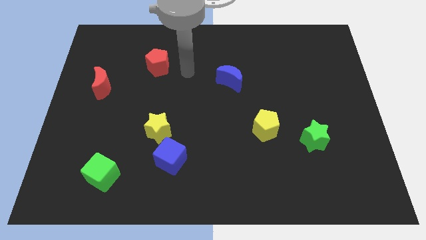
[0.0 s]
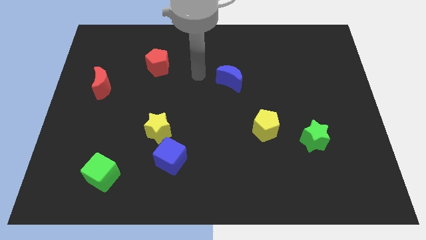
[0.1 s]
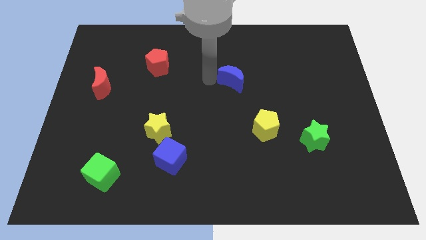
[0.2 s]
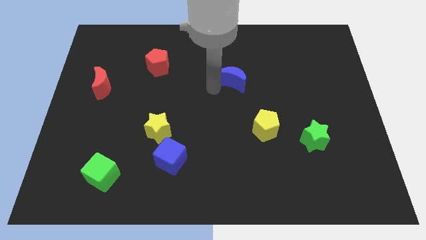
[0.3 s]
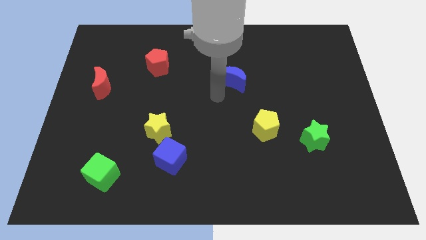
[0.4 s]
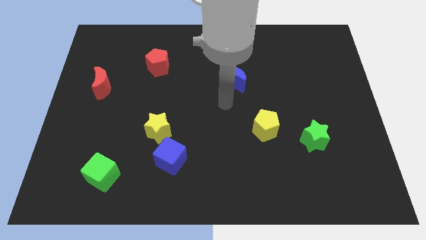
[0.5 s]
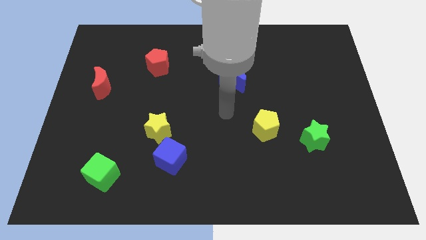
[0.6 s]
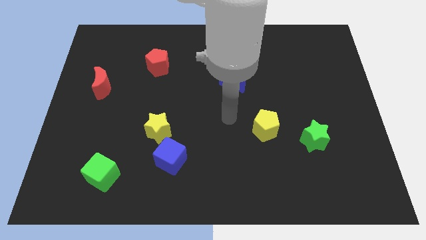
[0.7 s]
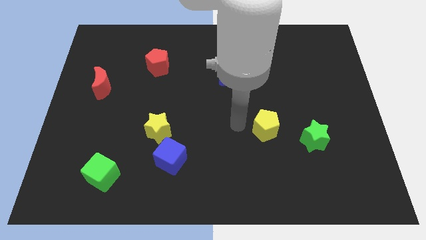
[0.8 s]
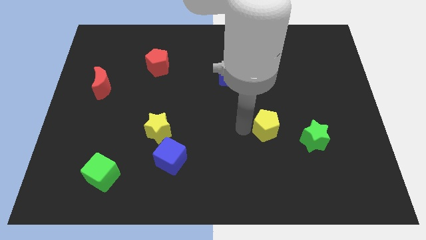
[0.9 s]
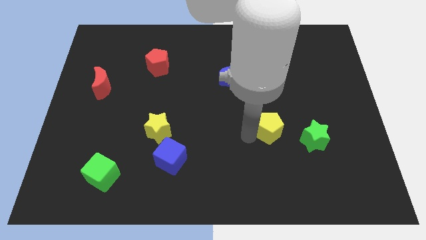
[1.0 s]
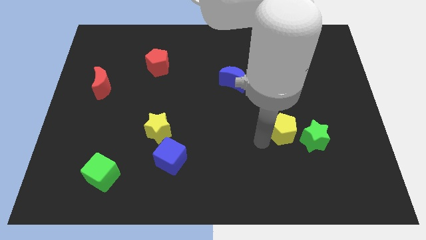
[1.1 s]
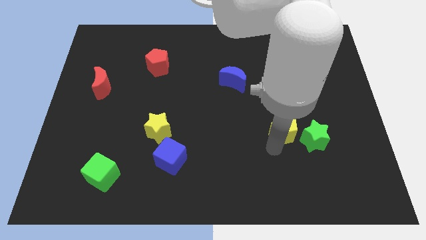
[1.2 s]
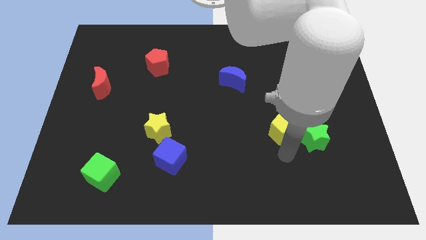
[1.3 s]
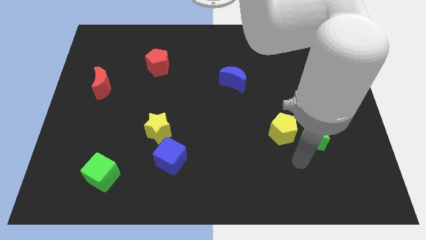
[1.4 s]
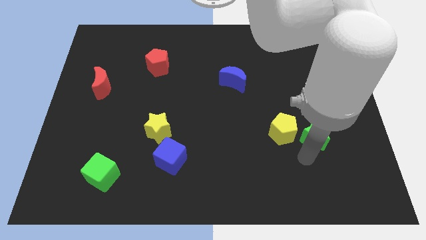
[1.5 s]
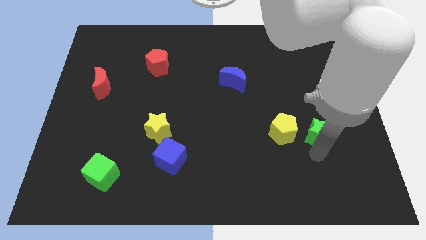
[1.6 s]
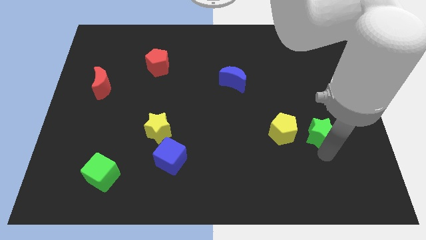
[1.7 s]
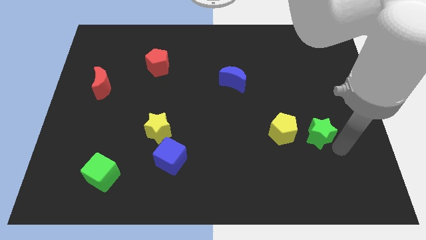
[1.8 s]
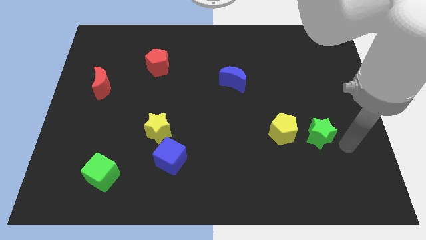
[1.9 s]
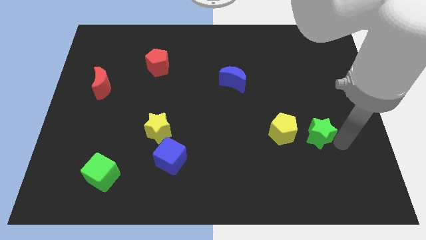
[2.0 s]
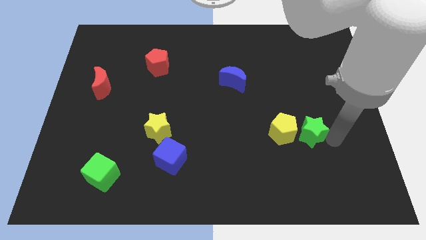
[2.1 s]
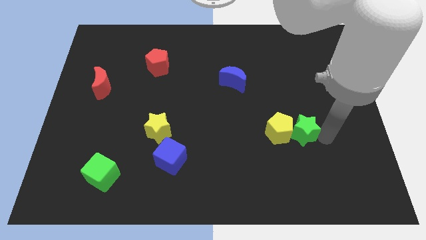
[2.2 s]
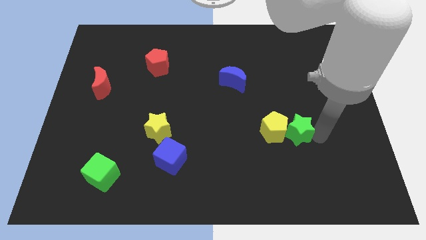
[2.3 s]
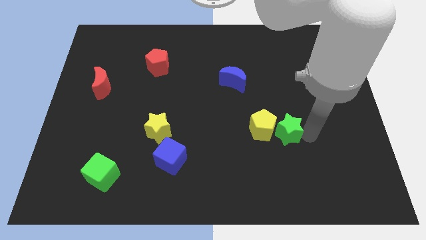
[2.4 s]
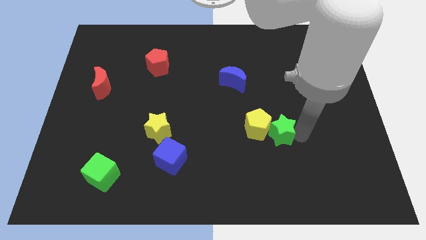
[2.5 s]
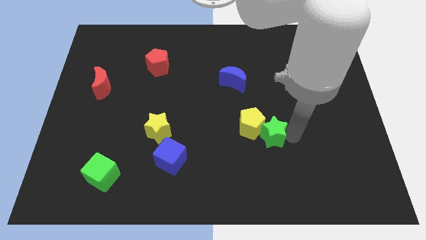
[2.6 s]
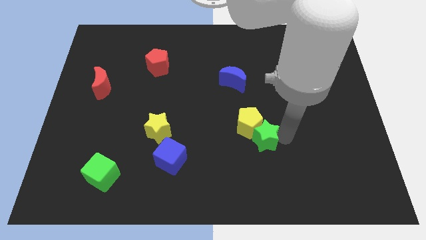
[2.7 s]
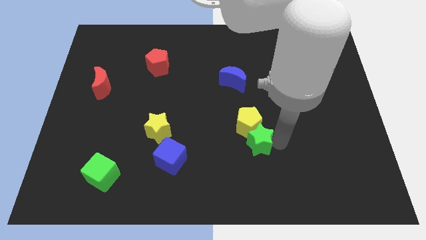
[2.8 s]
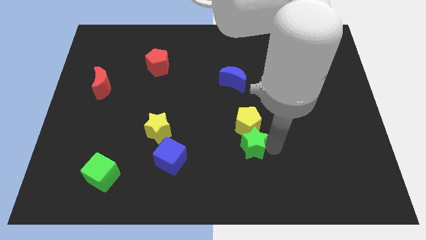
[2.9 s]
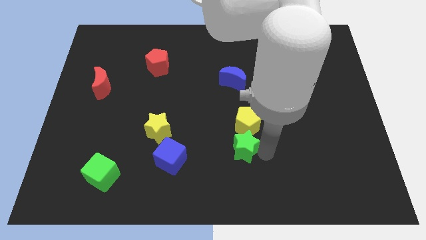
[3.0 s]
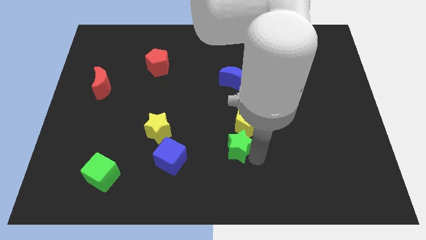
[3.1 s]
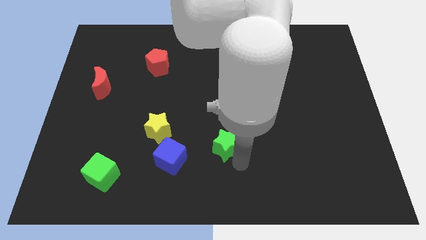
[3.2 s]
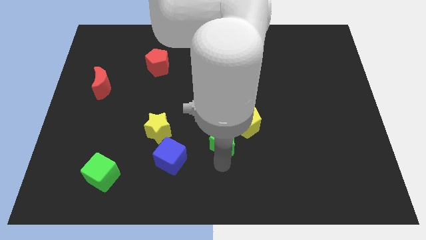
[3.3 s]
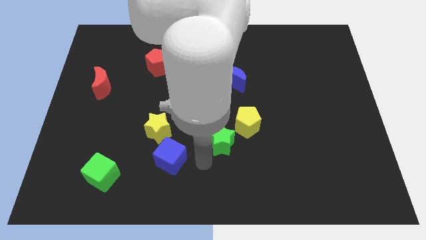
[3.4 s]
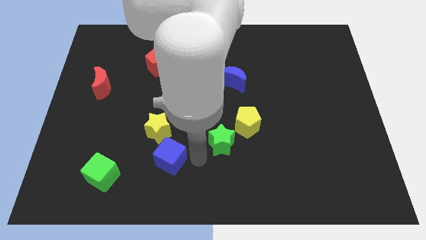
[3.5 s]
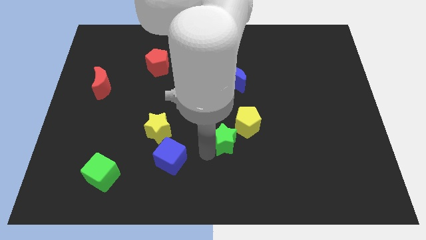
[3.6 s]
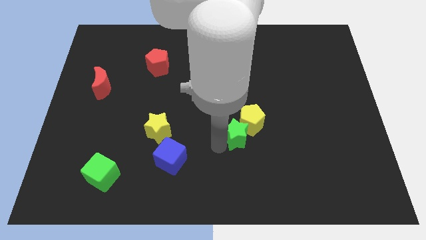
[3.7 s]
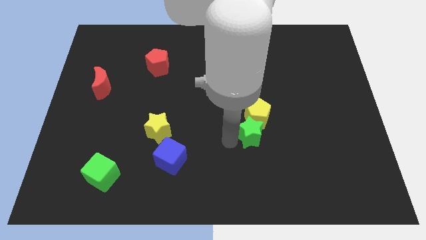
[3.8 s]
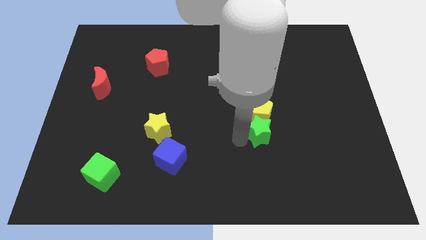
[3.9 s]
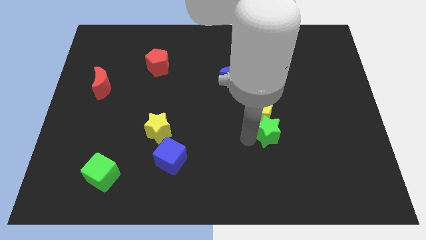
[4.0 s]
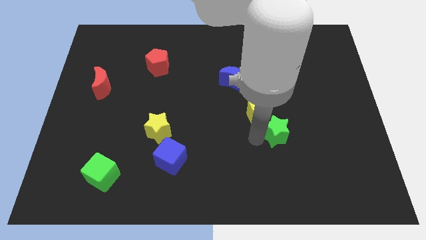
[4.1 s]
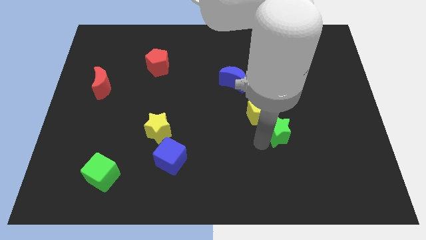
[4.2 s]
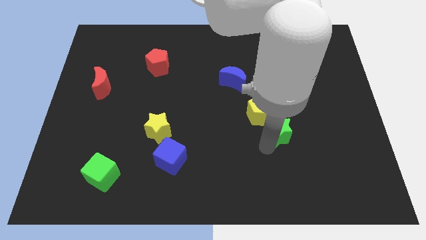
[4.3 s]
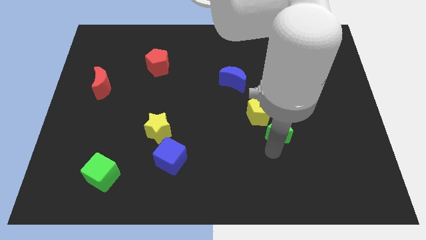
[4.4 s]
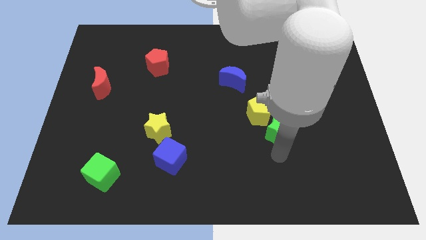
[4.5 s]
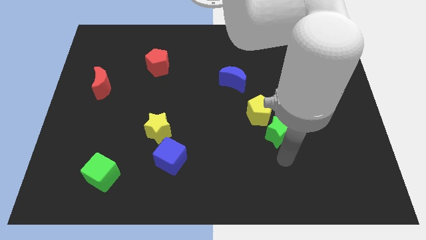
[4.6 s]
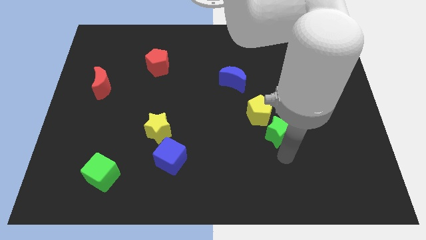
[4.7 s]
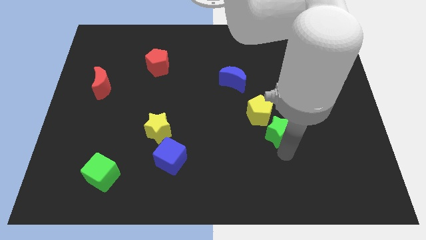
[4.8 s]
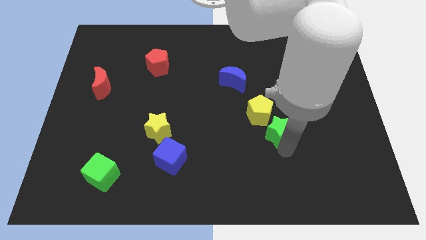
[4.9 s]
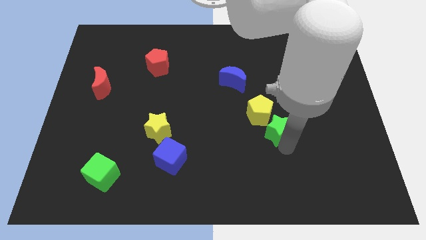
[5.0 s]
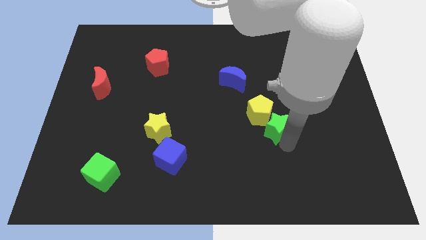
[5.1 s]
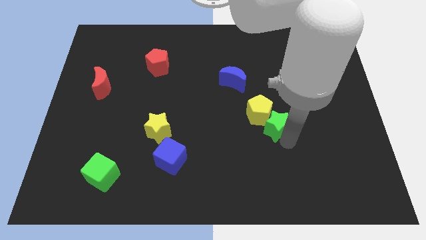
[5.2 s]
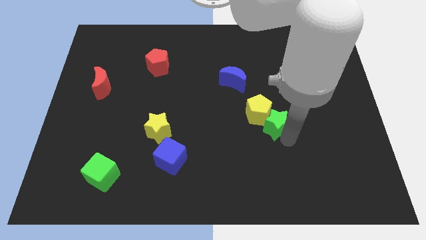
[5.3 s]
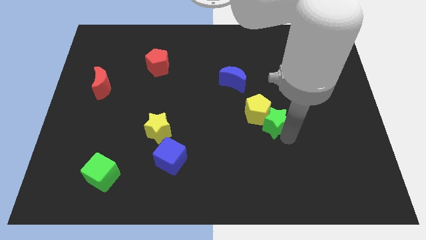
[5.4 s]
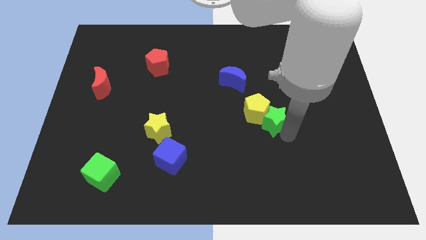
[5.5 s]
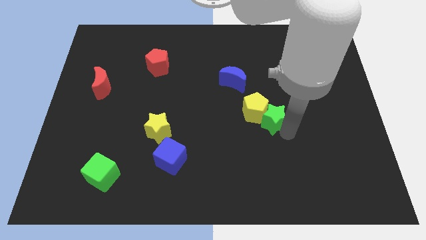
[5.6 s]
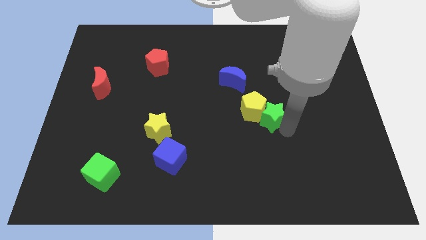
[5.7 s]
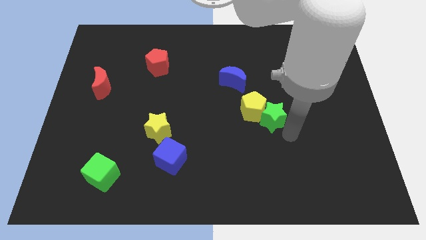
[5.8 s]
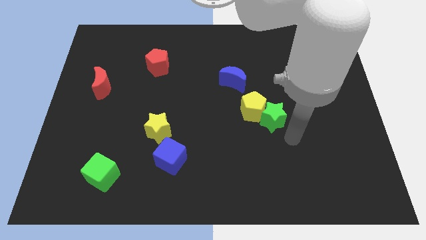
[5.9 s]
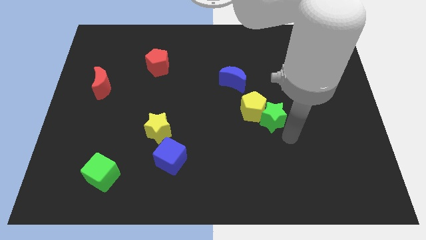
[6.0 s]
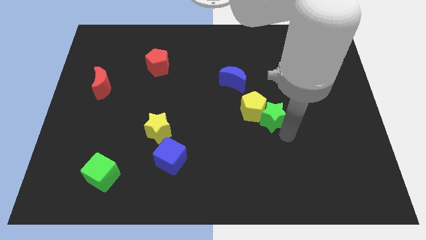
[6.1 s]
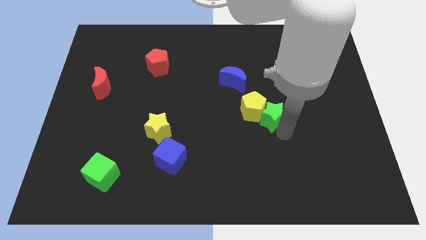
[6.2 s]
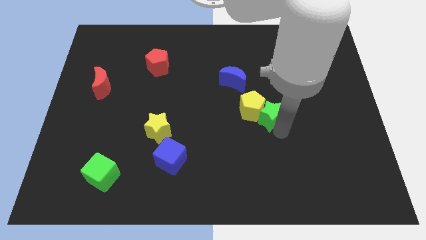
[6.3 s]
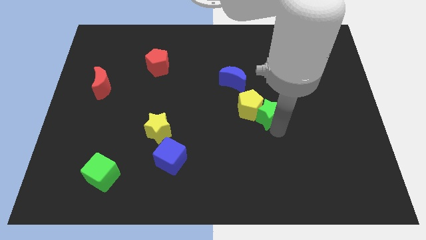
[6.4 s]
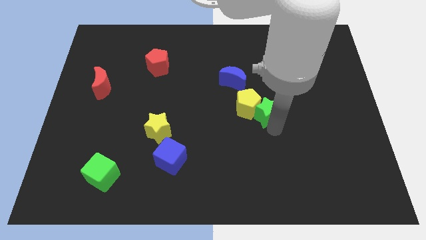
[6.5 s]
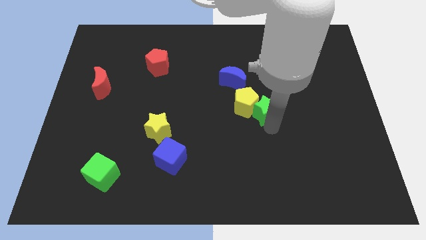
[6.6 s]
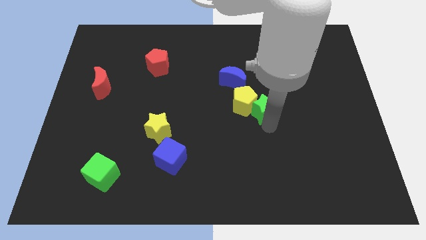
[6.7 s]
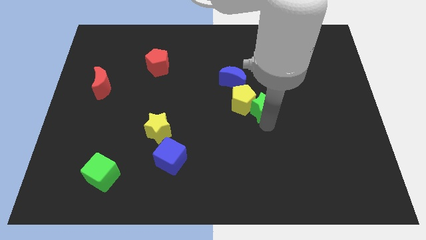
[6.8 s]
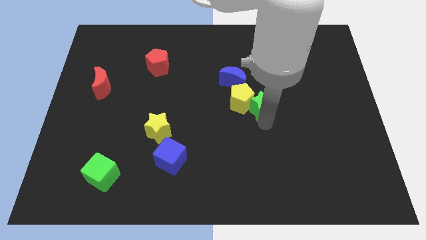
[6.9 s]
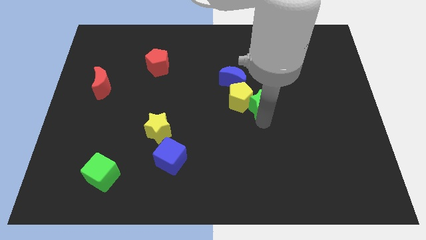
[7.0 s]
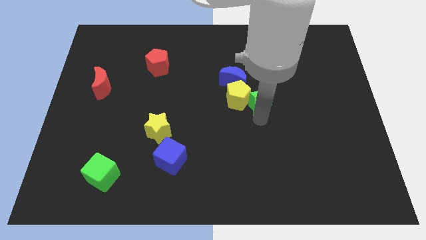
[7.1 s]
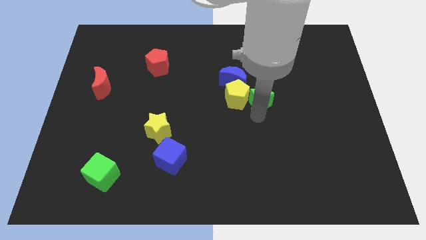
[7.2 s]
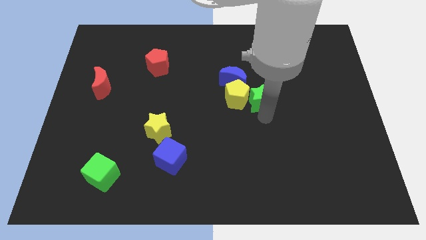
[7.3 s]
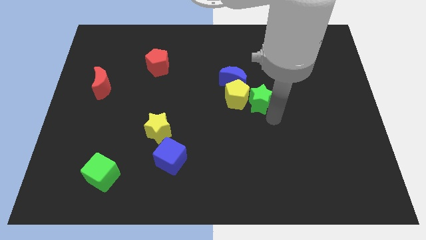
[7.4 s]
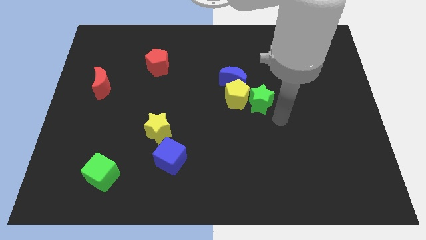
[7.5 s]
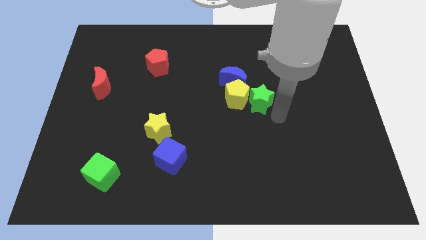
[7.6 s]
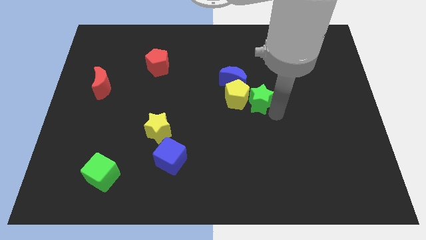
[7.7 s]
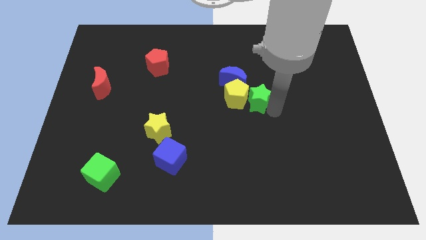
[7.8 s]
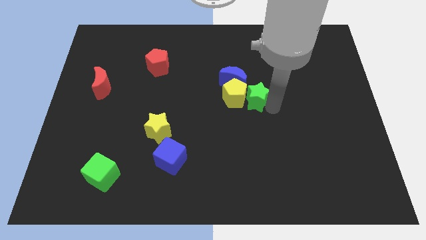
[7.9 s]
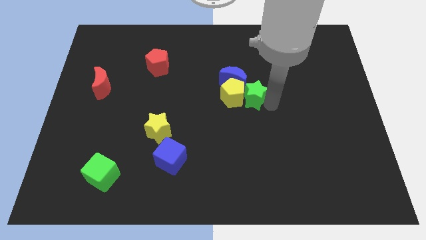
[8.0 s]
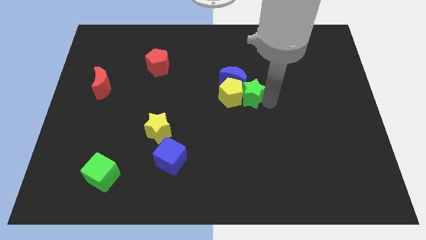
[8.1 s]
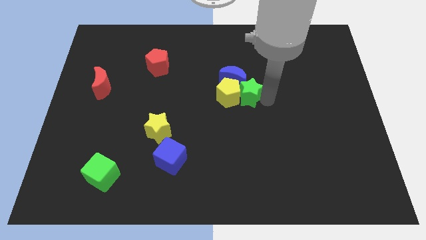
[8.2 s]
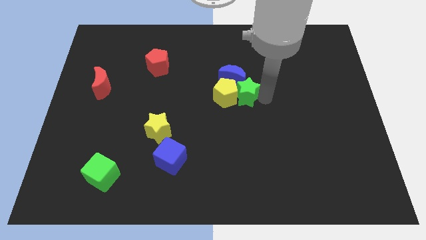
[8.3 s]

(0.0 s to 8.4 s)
put the green star towards the blue moon
